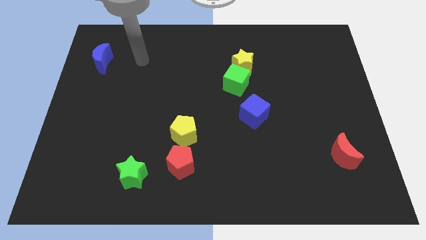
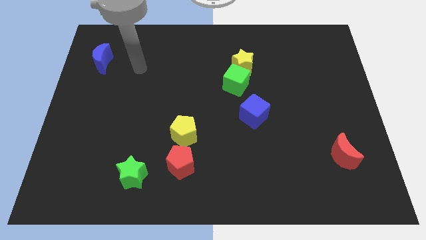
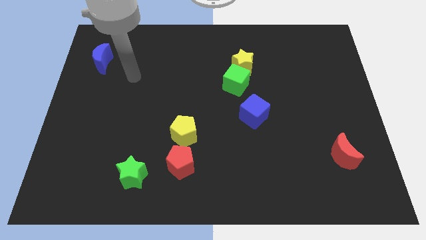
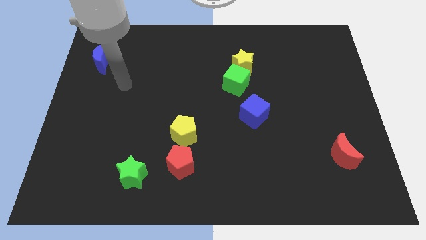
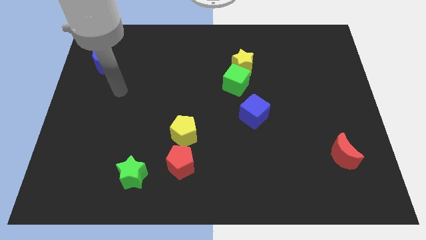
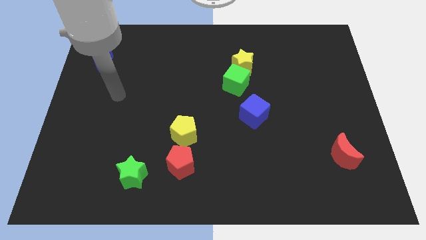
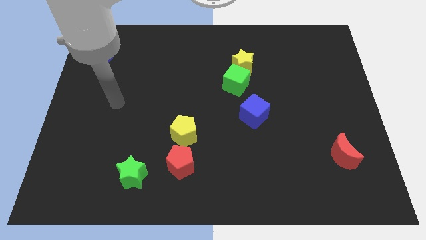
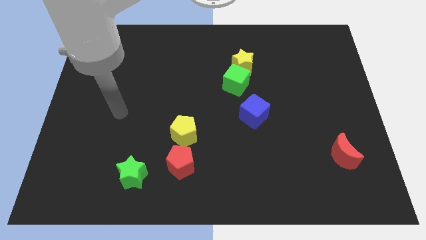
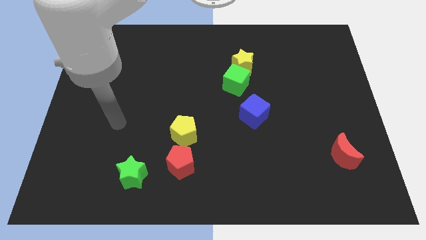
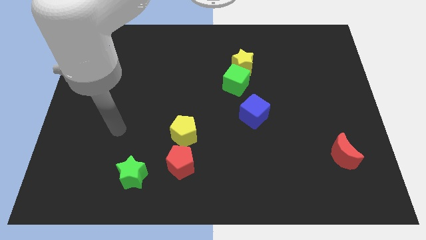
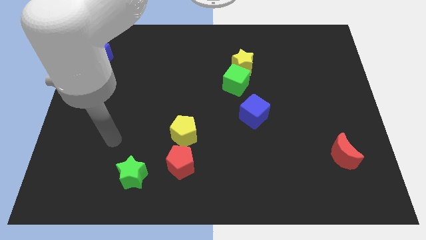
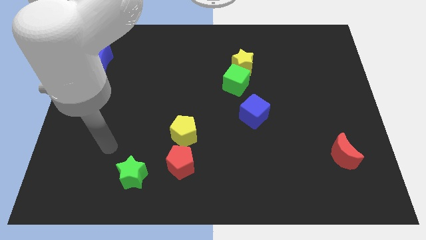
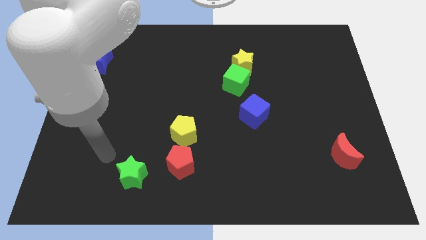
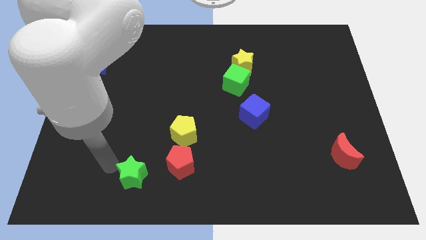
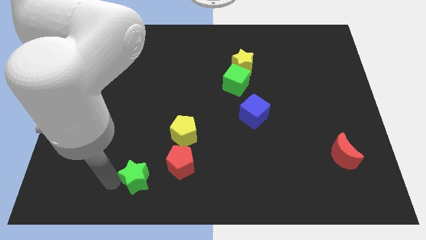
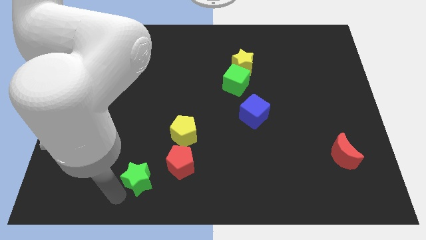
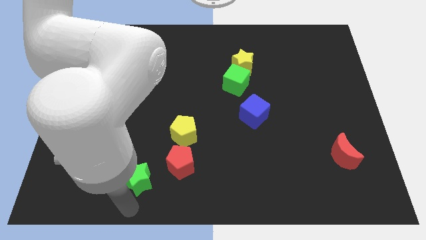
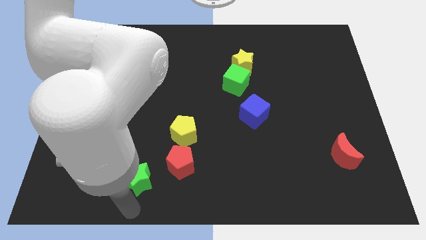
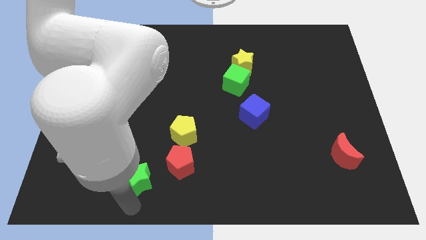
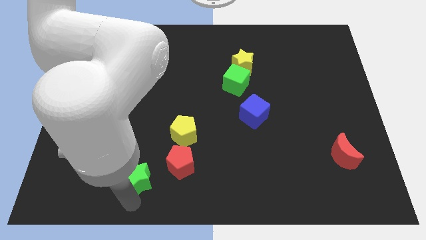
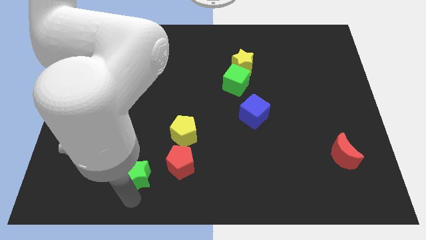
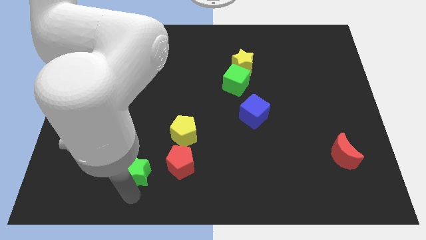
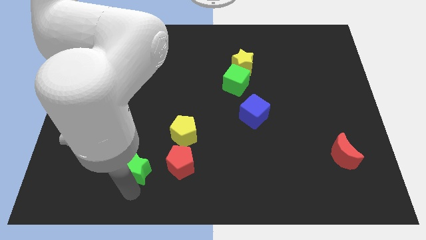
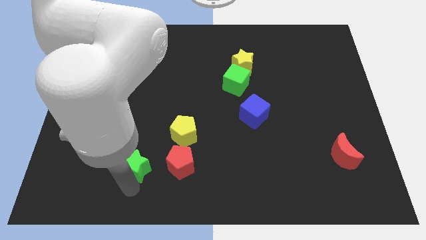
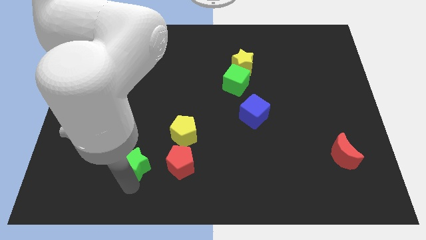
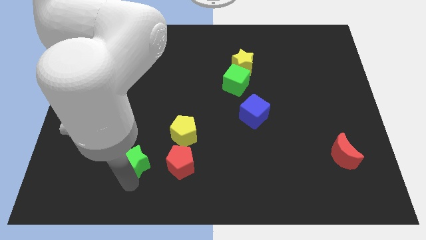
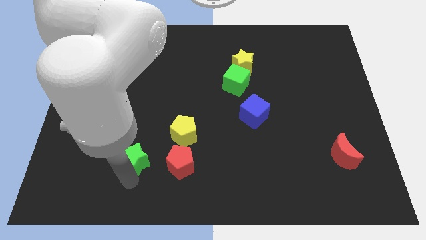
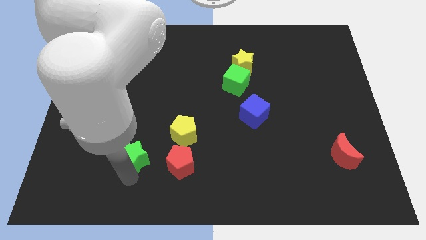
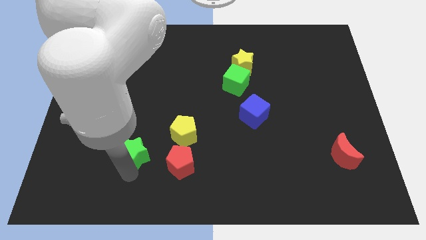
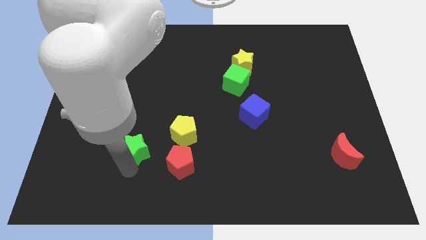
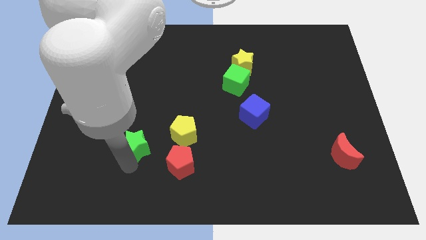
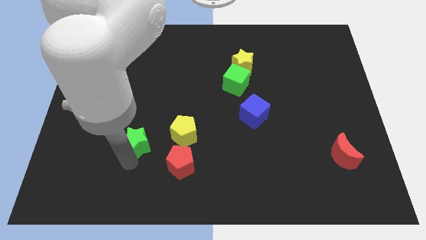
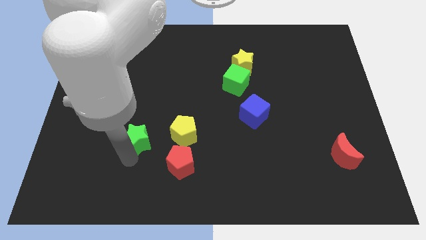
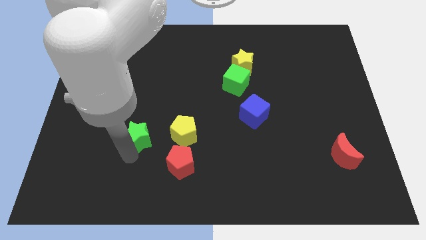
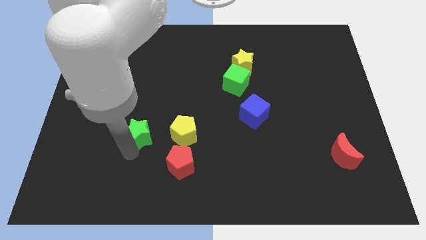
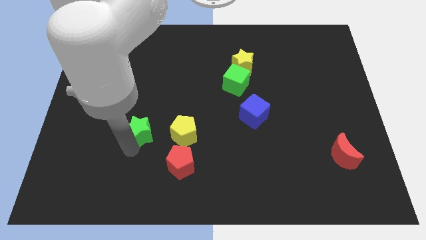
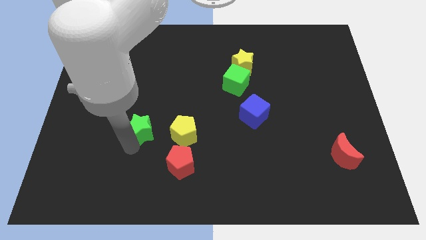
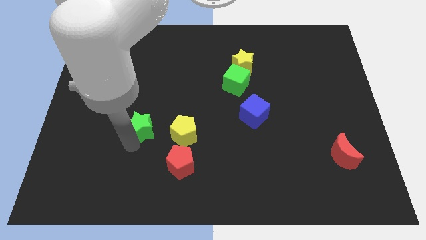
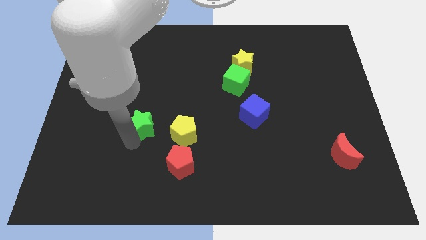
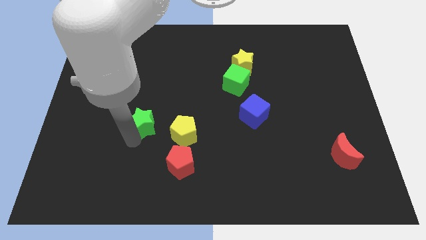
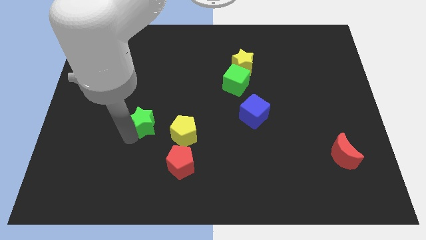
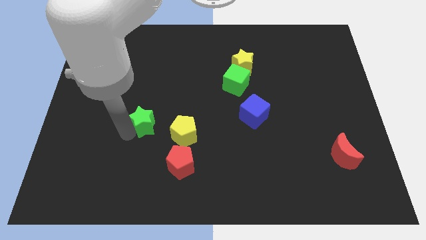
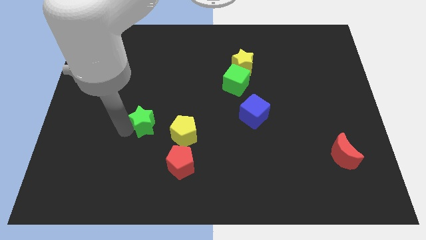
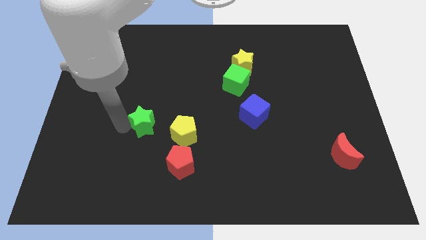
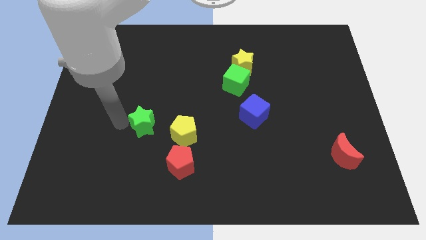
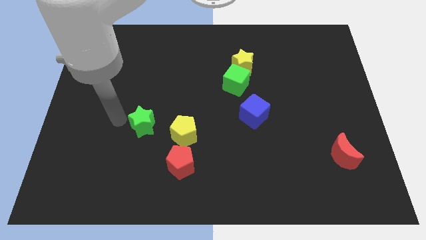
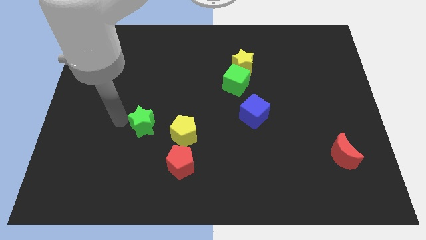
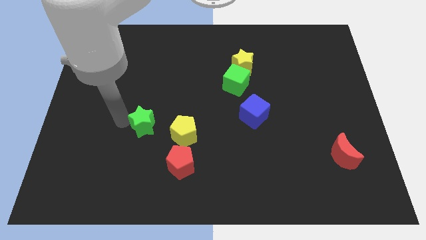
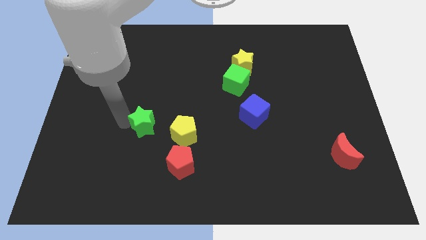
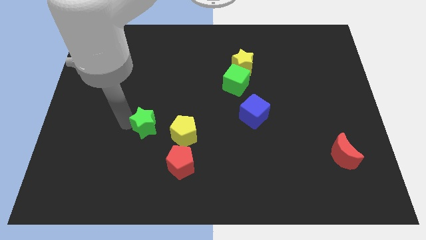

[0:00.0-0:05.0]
slightly slide the green star up and right

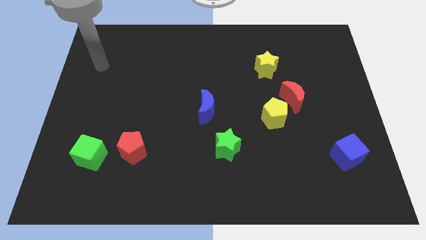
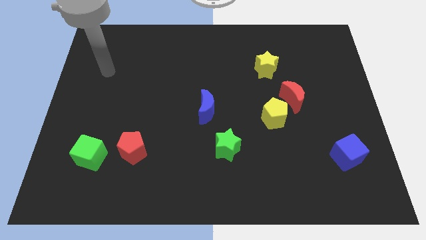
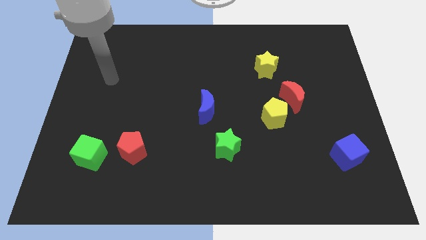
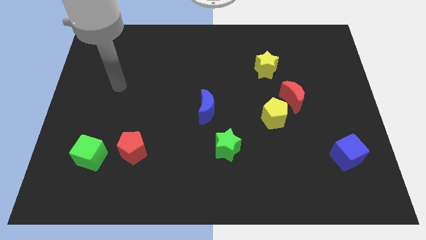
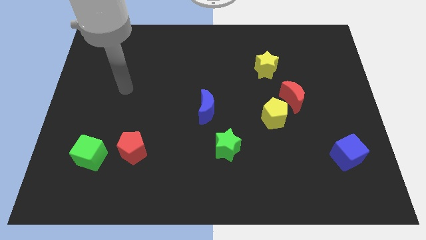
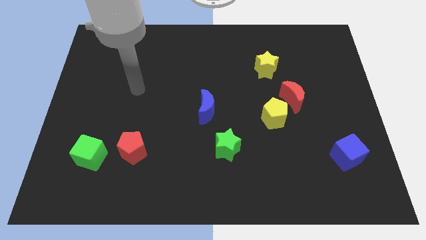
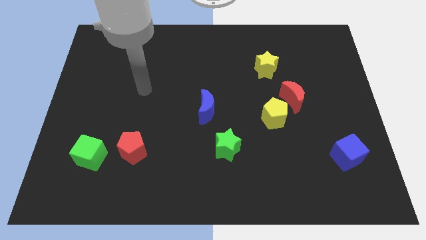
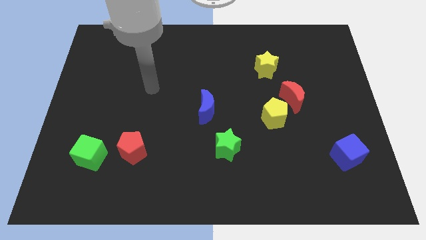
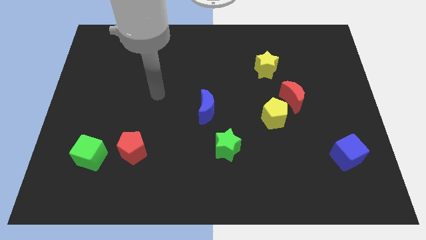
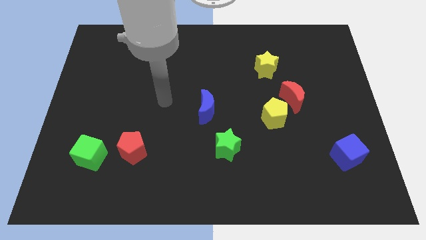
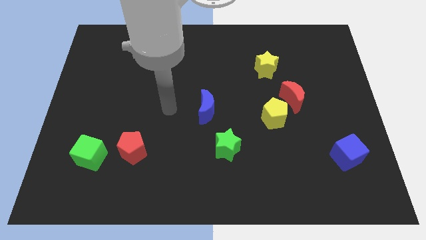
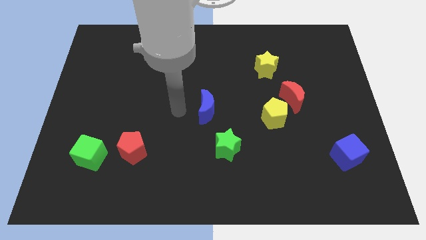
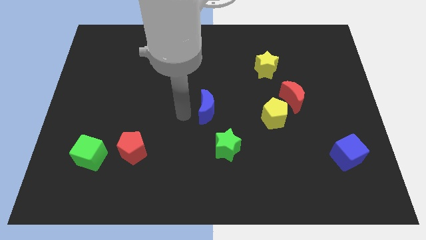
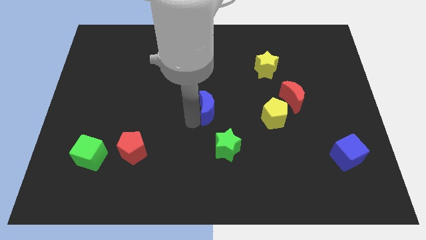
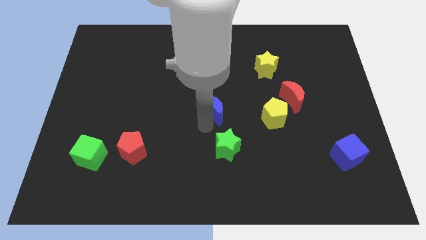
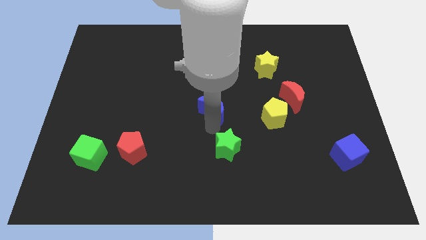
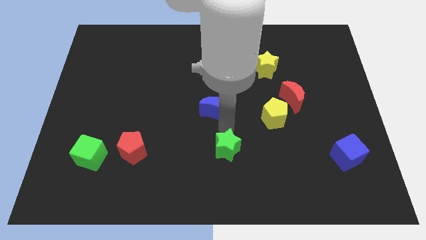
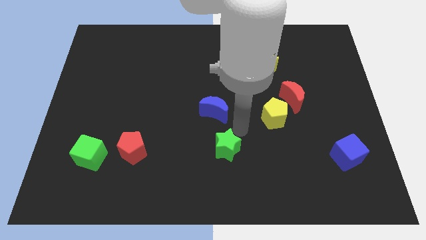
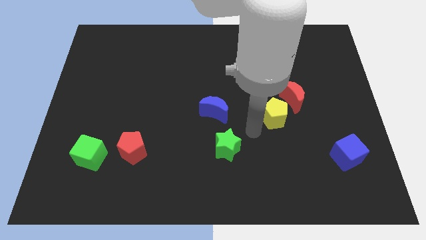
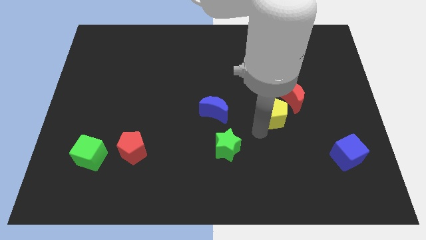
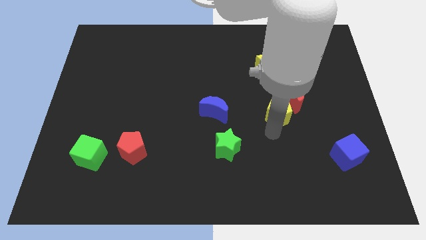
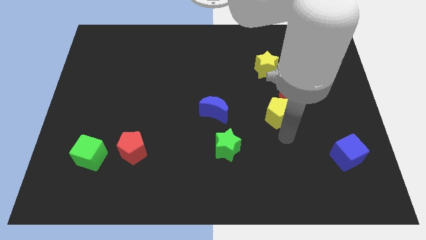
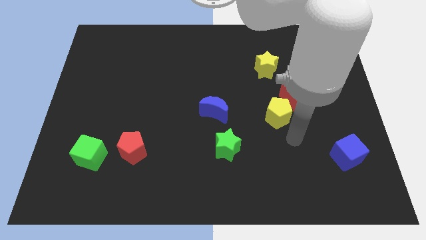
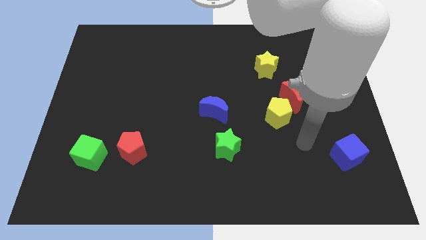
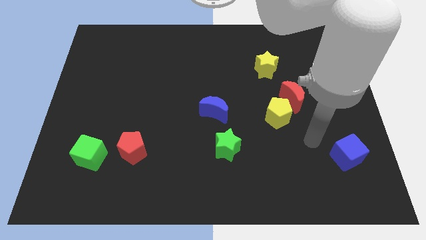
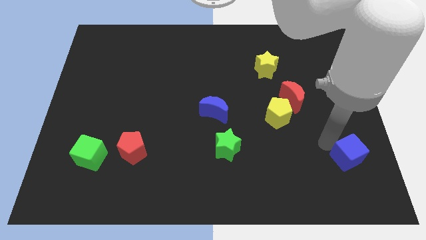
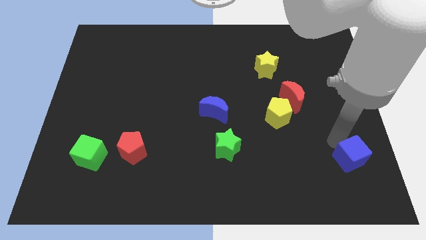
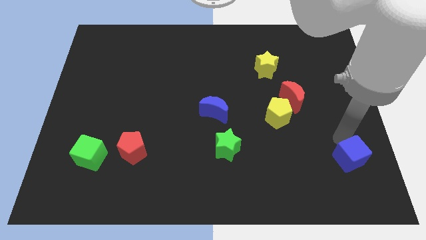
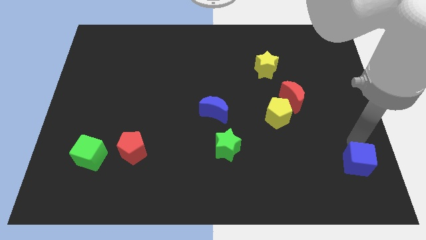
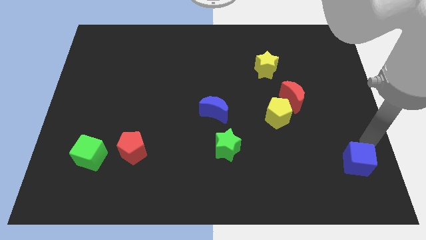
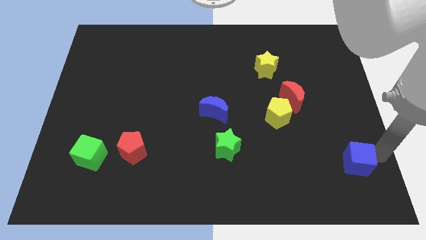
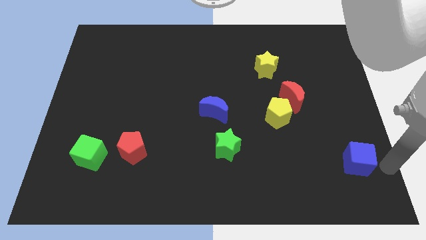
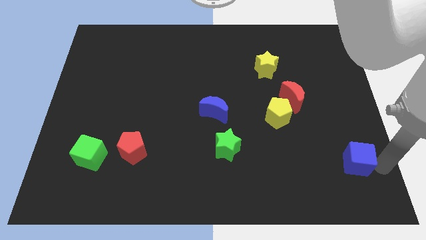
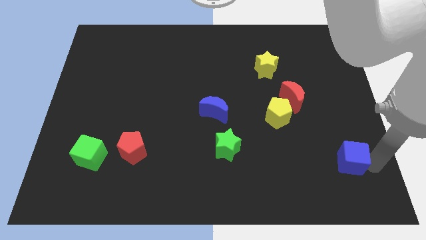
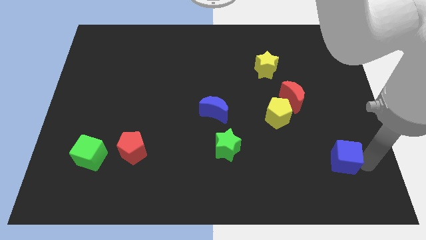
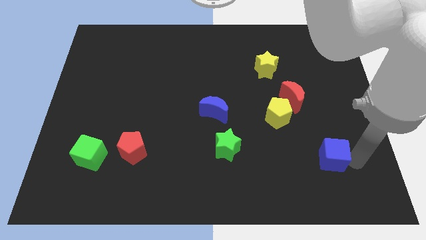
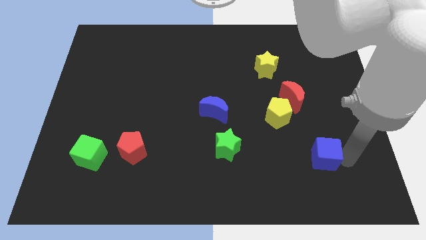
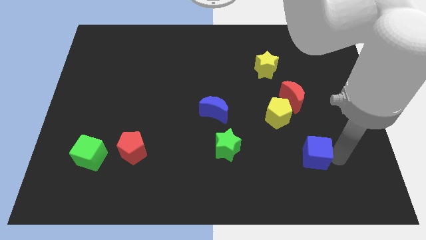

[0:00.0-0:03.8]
push the blue cube slightly left
